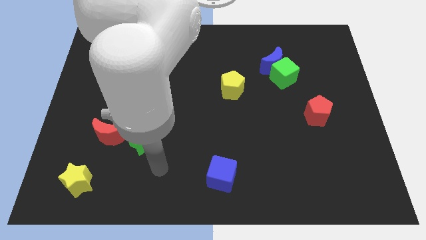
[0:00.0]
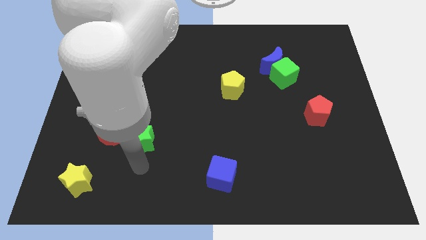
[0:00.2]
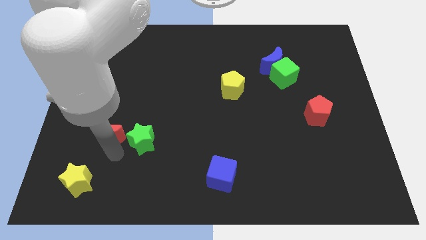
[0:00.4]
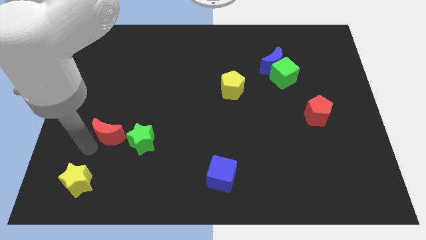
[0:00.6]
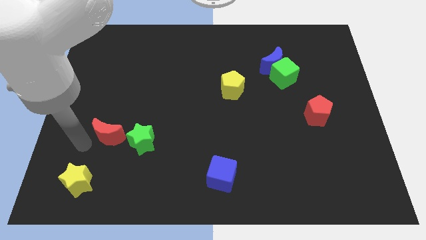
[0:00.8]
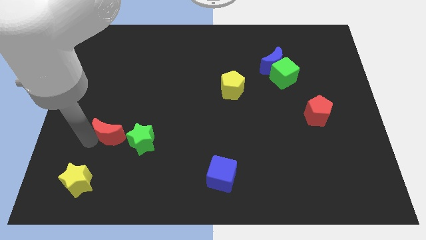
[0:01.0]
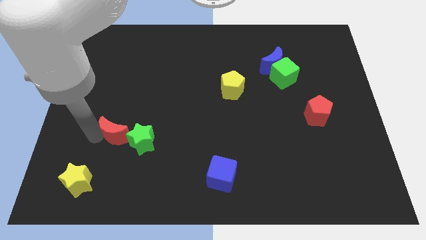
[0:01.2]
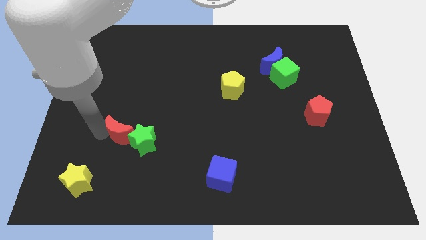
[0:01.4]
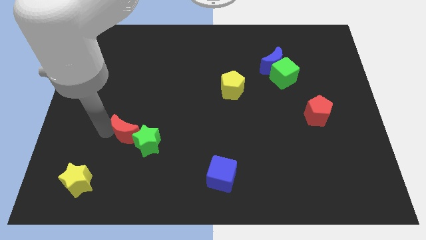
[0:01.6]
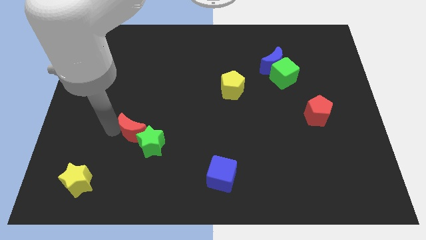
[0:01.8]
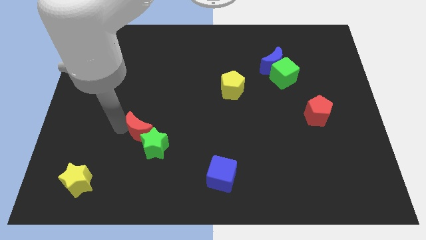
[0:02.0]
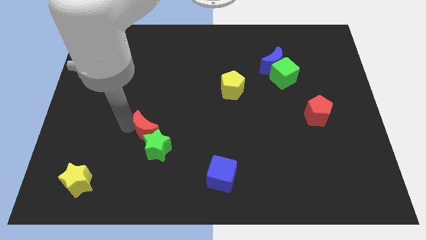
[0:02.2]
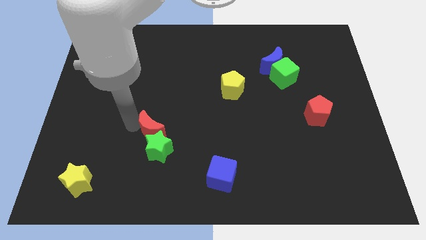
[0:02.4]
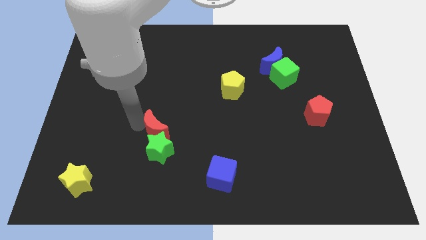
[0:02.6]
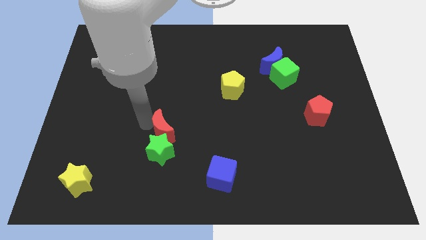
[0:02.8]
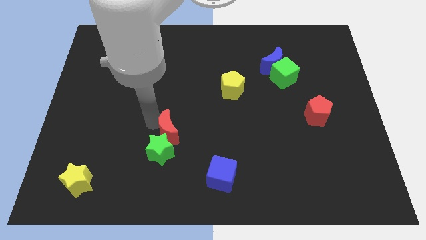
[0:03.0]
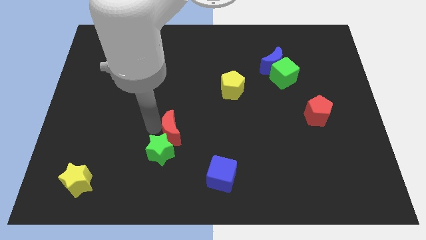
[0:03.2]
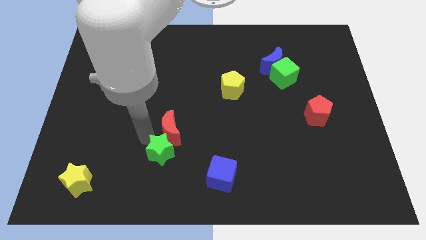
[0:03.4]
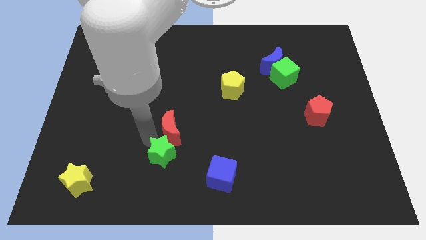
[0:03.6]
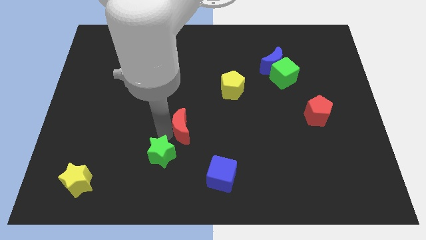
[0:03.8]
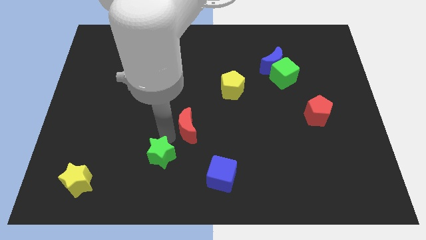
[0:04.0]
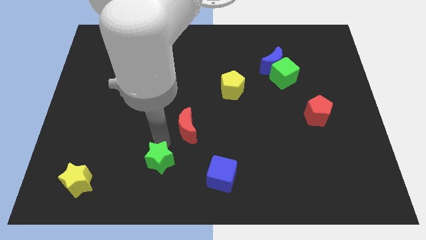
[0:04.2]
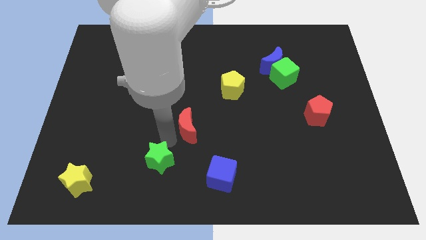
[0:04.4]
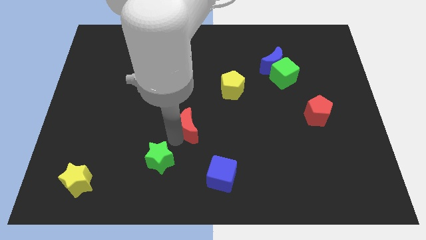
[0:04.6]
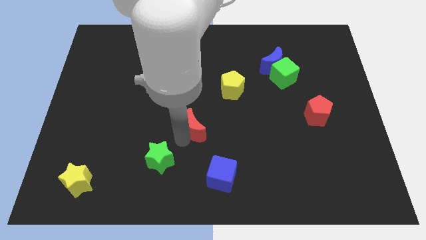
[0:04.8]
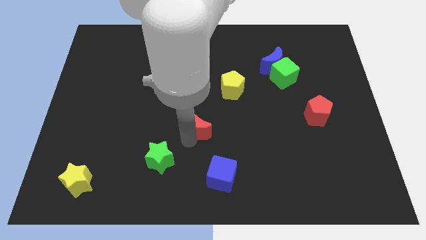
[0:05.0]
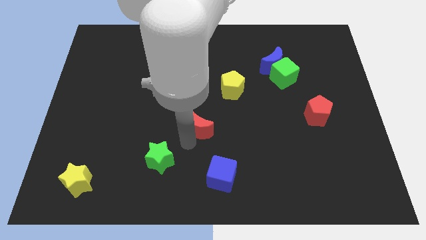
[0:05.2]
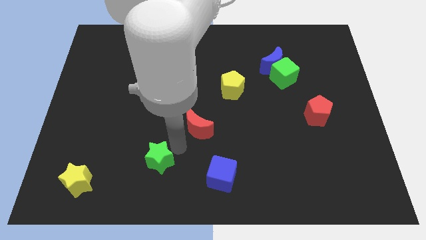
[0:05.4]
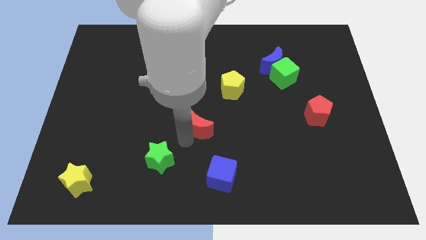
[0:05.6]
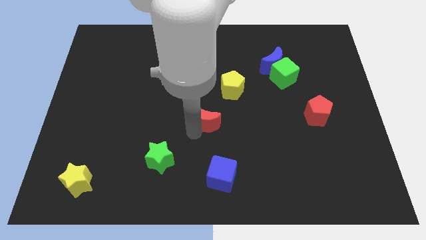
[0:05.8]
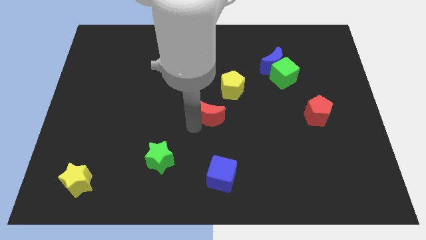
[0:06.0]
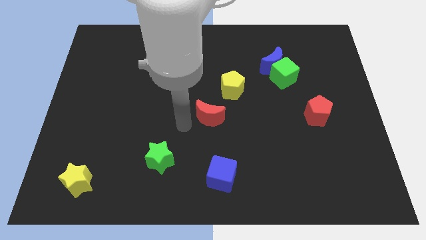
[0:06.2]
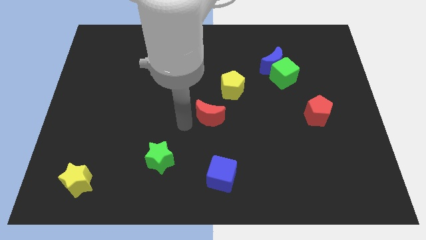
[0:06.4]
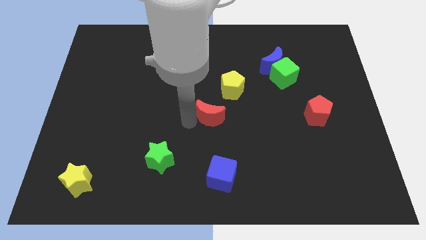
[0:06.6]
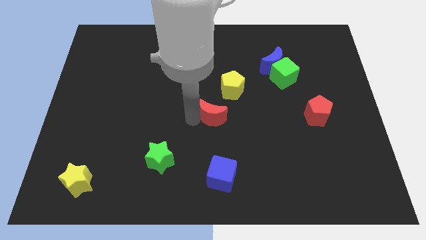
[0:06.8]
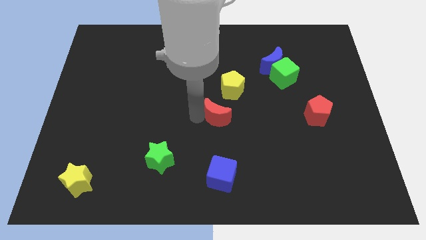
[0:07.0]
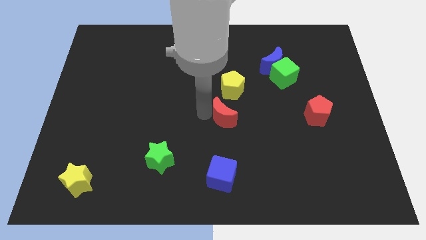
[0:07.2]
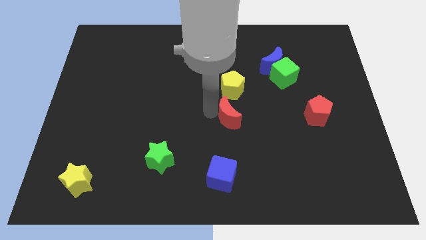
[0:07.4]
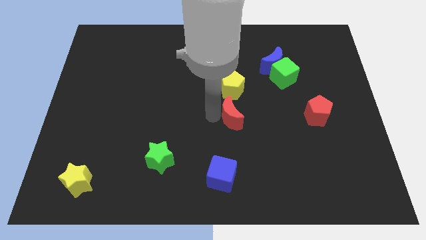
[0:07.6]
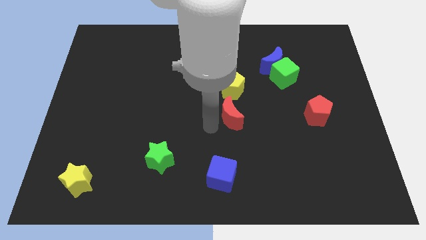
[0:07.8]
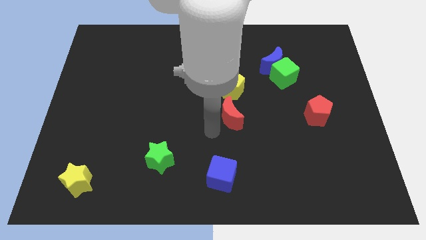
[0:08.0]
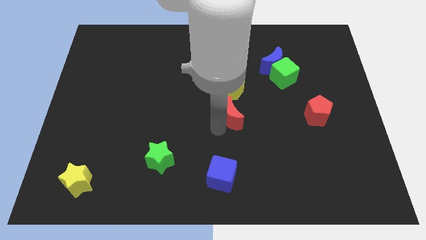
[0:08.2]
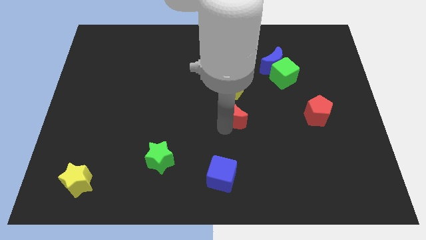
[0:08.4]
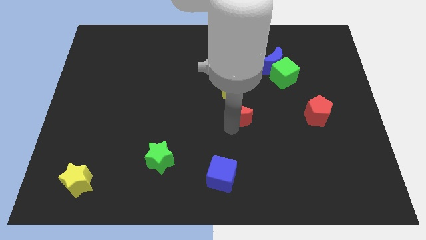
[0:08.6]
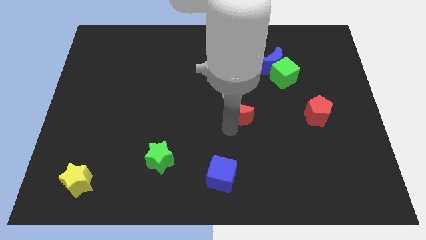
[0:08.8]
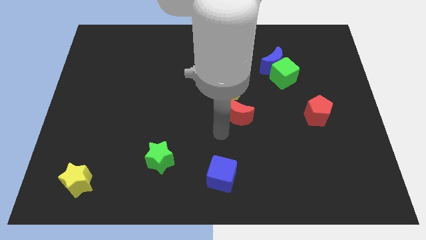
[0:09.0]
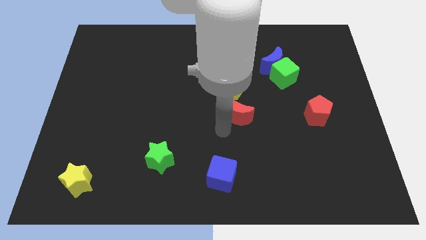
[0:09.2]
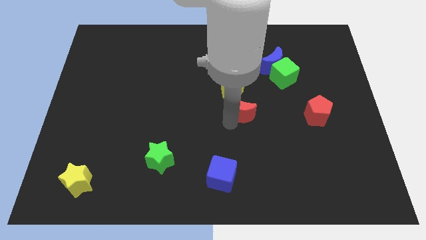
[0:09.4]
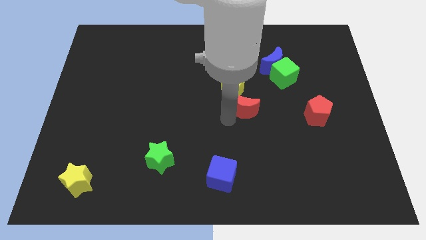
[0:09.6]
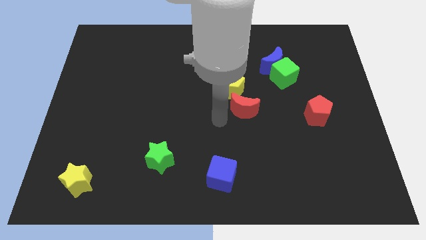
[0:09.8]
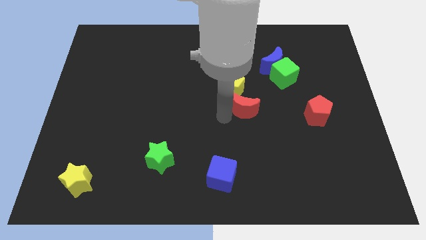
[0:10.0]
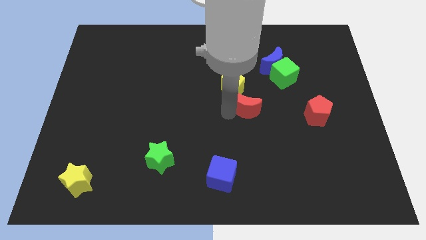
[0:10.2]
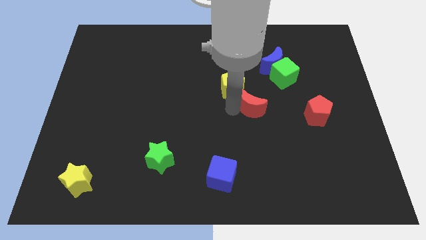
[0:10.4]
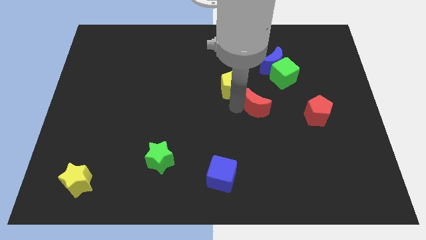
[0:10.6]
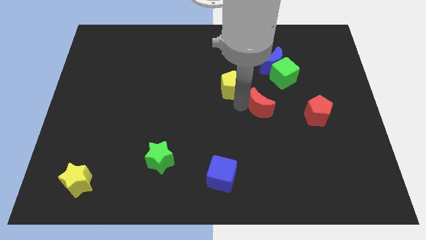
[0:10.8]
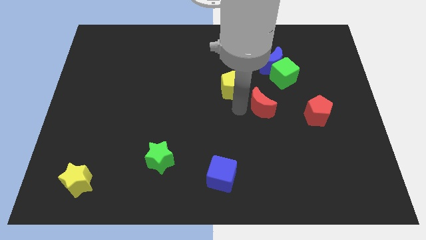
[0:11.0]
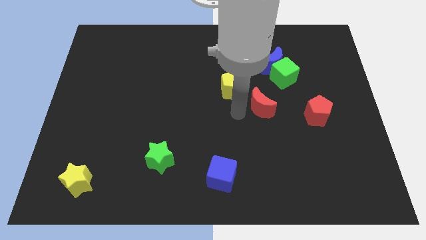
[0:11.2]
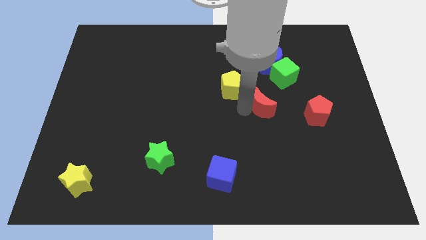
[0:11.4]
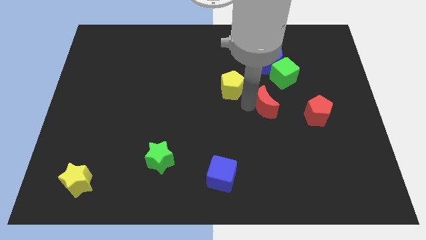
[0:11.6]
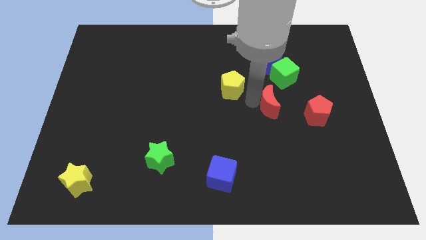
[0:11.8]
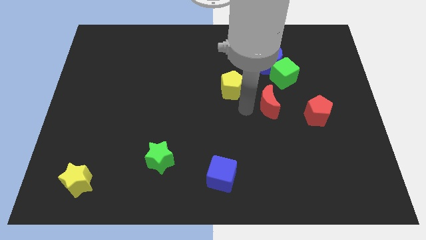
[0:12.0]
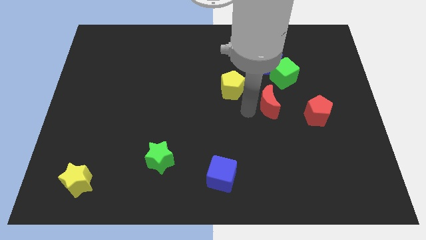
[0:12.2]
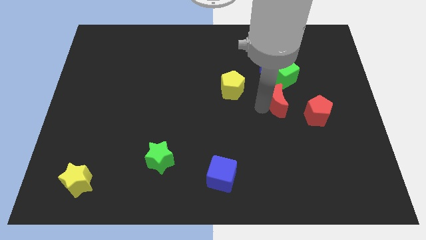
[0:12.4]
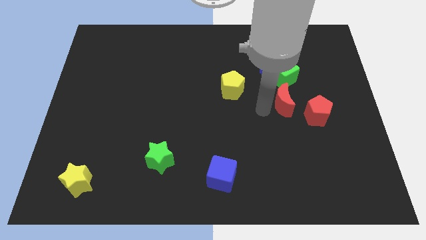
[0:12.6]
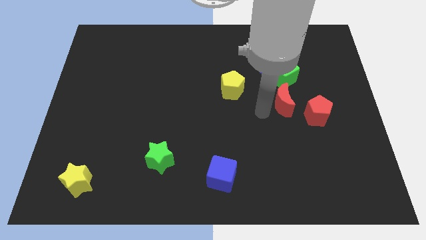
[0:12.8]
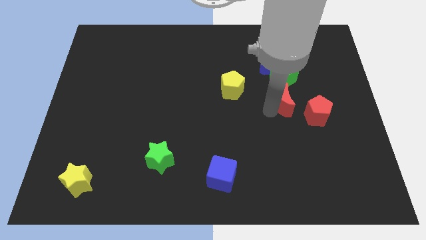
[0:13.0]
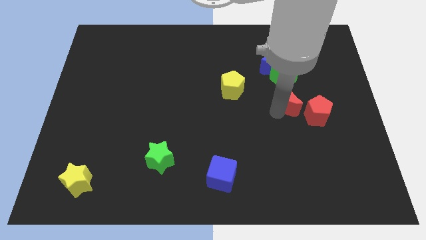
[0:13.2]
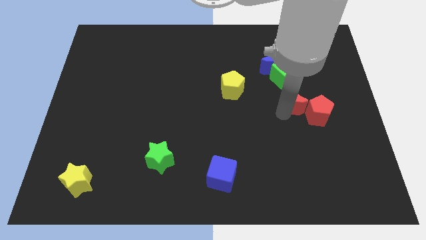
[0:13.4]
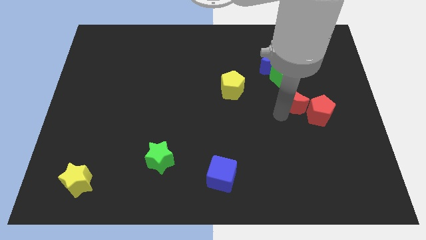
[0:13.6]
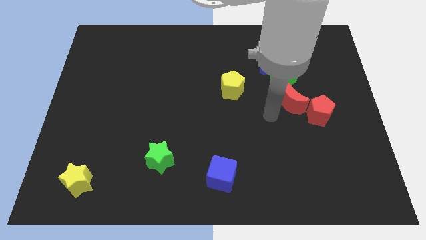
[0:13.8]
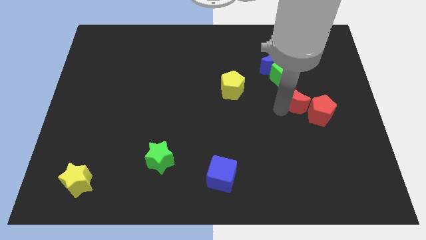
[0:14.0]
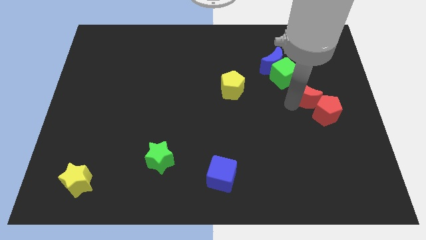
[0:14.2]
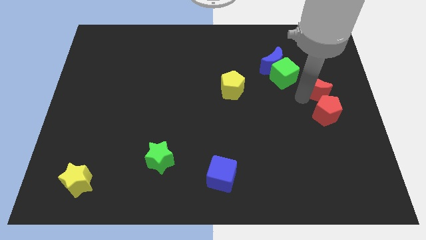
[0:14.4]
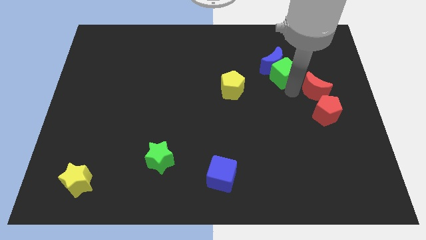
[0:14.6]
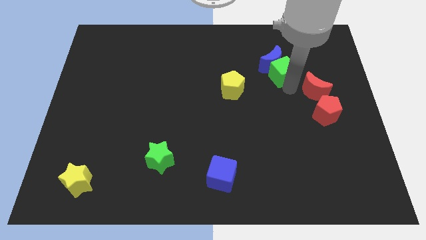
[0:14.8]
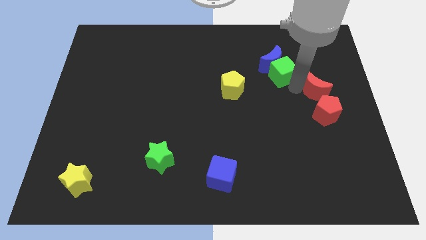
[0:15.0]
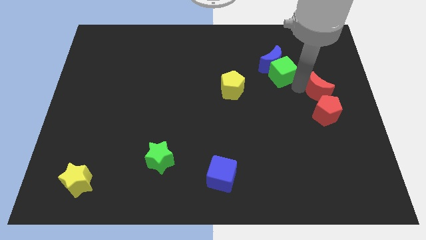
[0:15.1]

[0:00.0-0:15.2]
put the red moon to the center right
